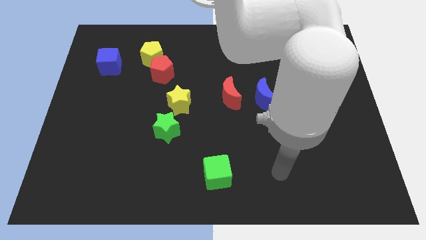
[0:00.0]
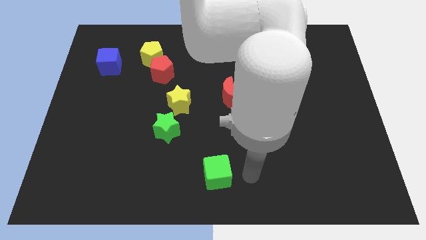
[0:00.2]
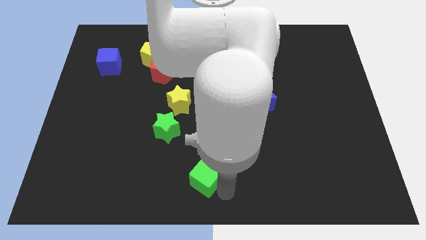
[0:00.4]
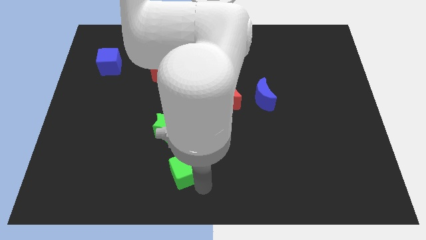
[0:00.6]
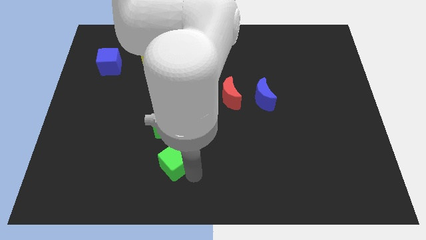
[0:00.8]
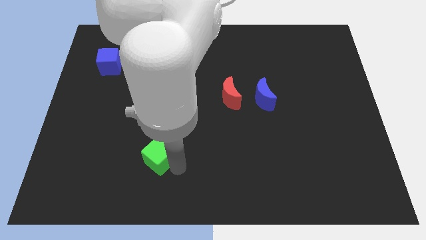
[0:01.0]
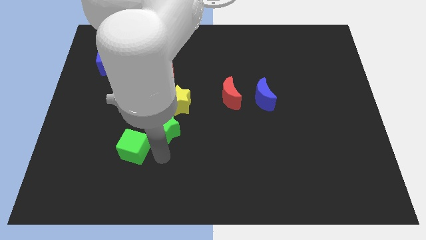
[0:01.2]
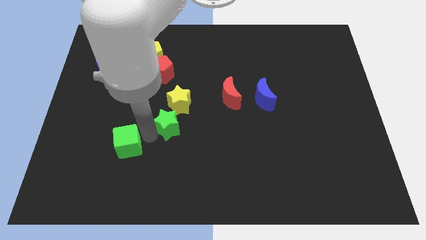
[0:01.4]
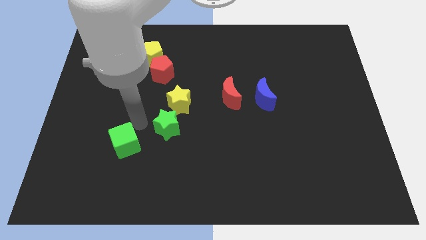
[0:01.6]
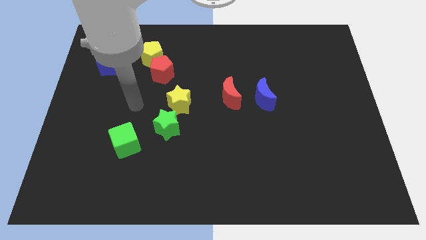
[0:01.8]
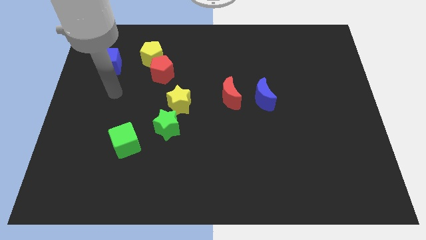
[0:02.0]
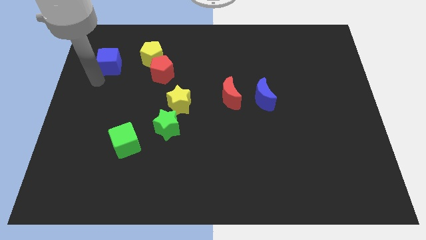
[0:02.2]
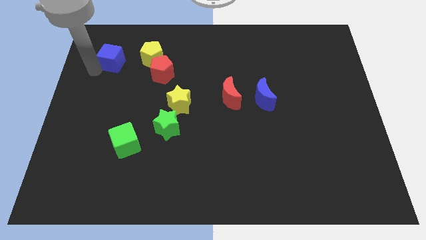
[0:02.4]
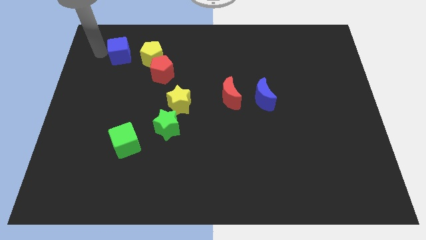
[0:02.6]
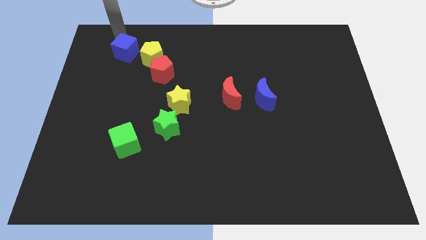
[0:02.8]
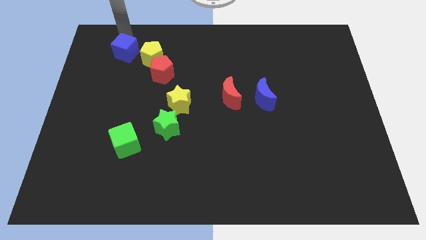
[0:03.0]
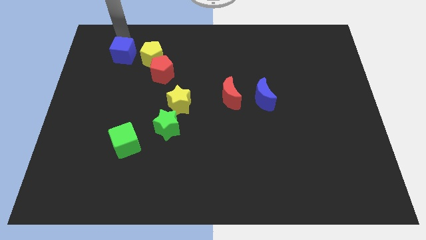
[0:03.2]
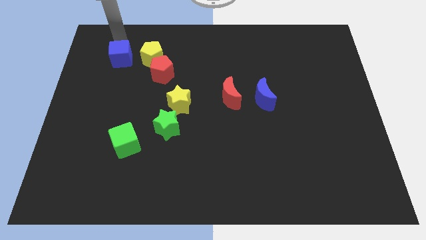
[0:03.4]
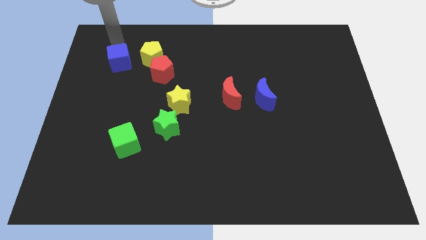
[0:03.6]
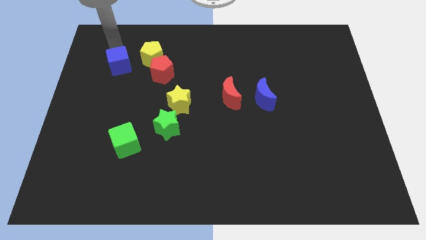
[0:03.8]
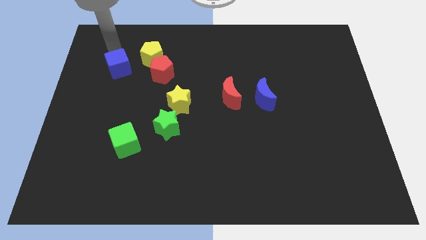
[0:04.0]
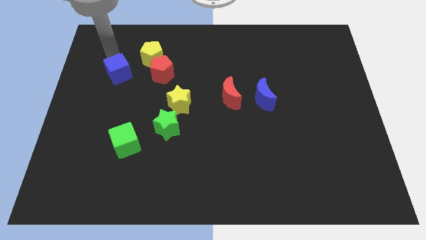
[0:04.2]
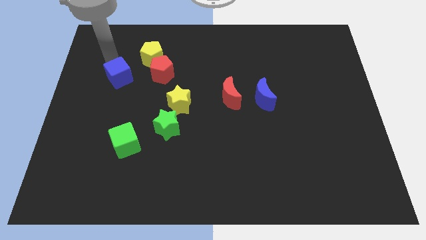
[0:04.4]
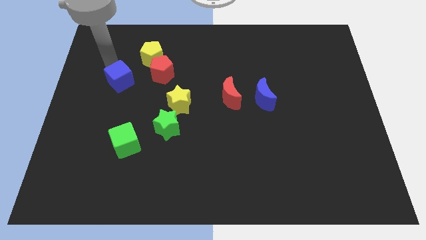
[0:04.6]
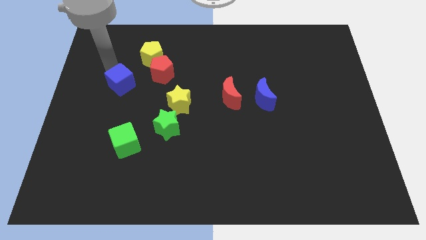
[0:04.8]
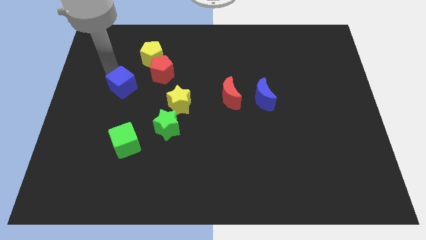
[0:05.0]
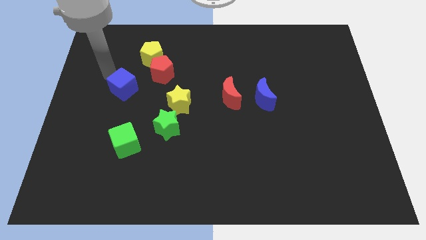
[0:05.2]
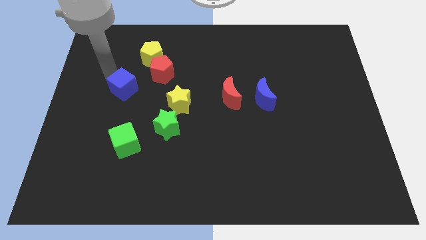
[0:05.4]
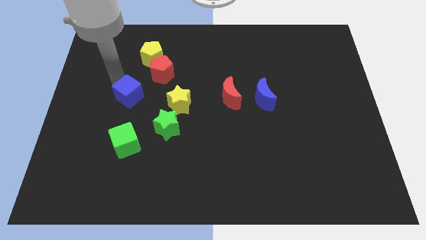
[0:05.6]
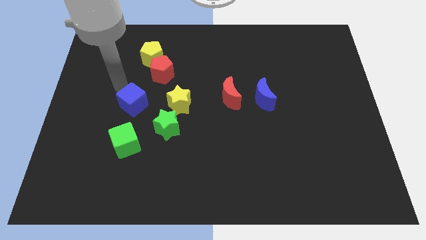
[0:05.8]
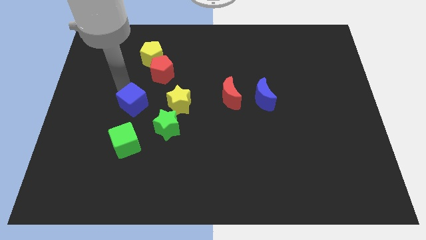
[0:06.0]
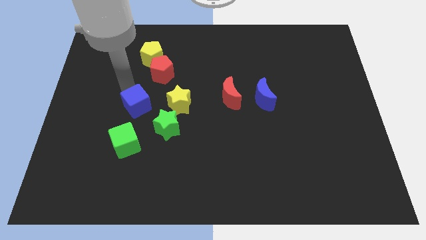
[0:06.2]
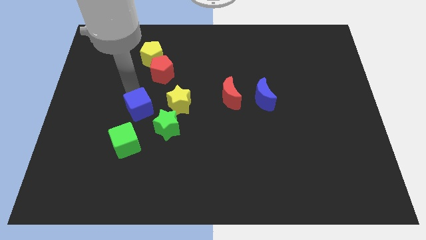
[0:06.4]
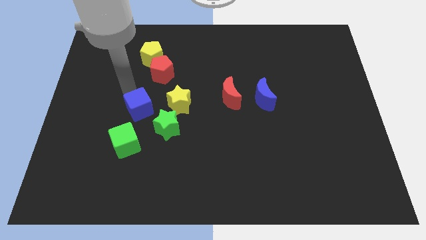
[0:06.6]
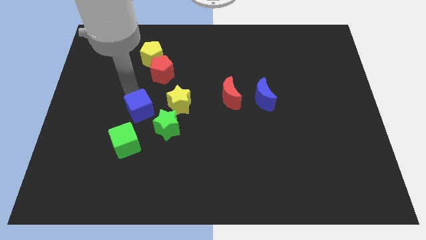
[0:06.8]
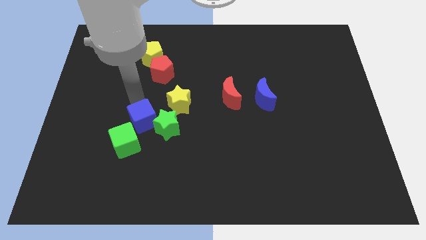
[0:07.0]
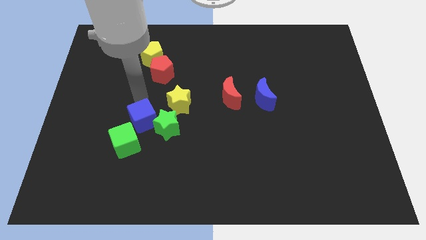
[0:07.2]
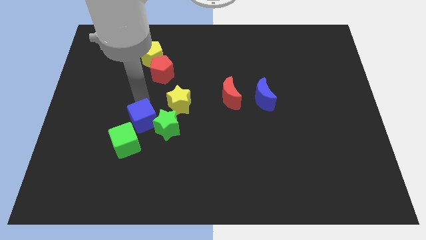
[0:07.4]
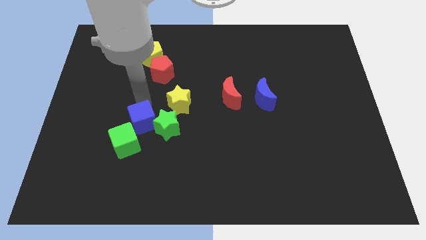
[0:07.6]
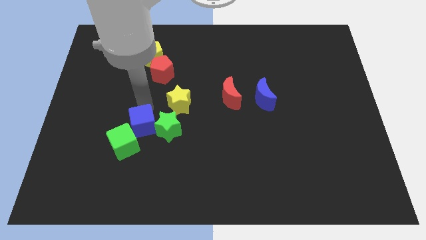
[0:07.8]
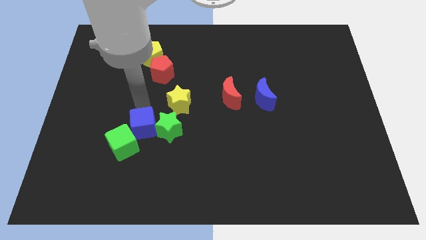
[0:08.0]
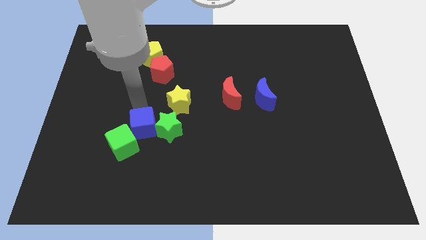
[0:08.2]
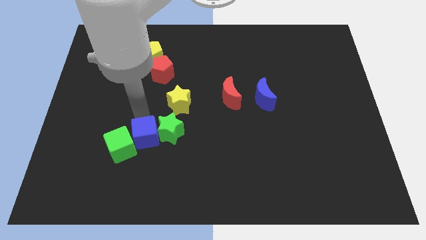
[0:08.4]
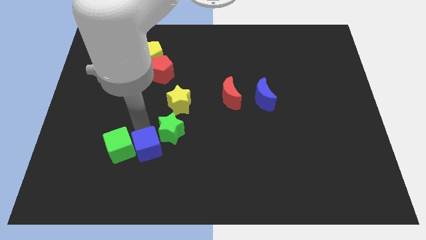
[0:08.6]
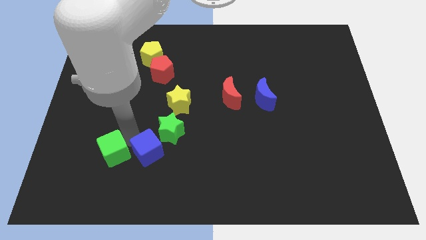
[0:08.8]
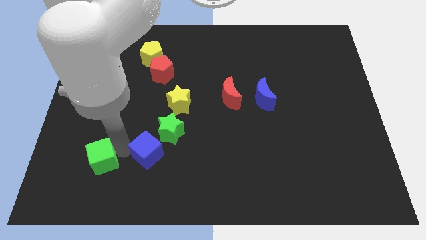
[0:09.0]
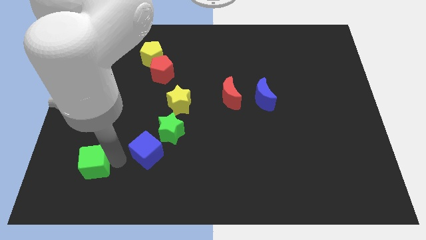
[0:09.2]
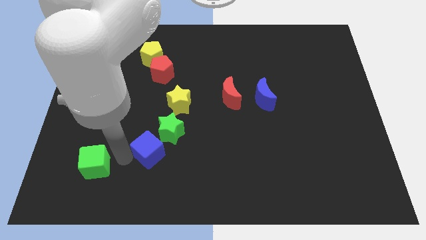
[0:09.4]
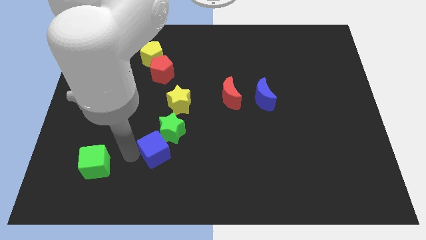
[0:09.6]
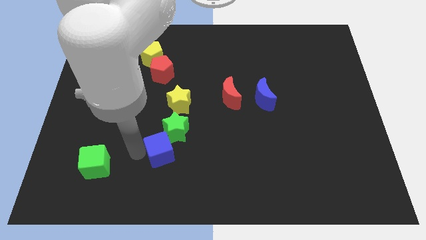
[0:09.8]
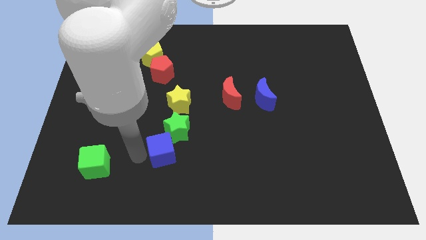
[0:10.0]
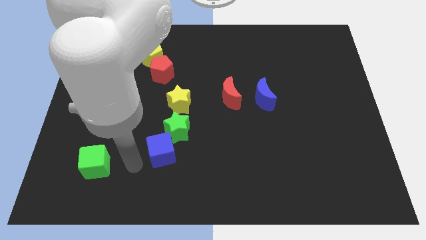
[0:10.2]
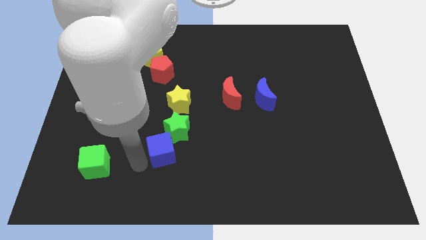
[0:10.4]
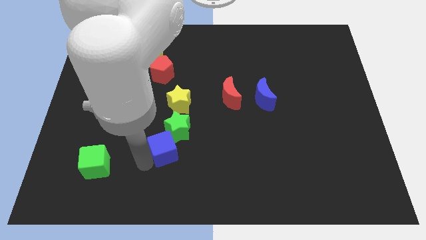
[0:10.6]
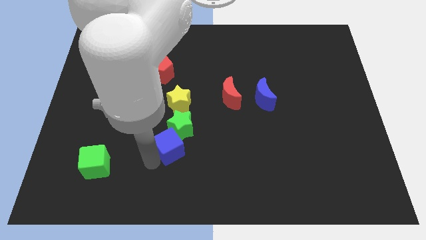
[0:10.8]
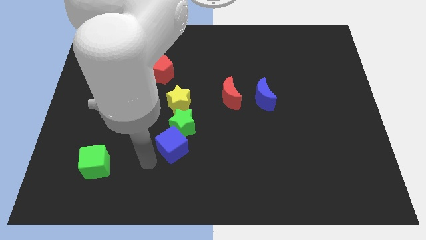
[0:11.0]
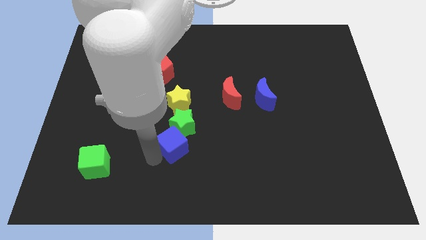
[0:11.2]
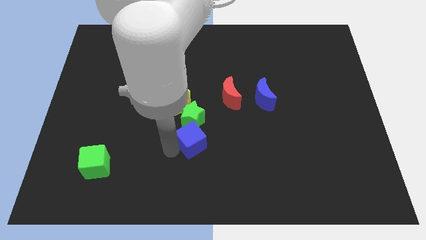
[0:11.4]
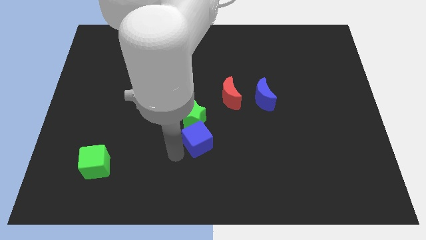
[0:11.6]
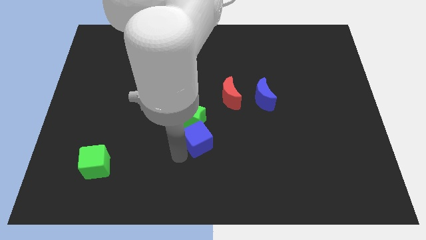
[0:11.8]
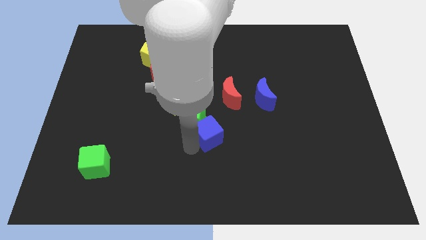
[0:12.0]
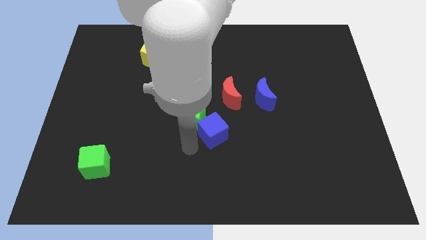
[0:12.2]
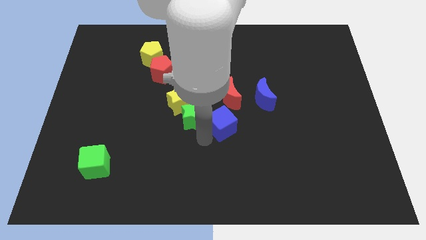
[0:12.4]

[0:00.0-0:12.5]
slide the blue cube to the bottom left side of the blue moon

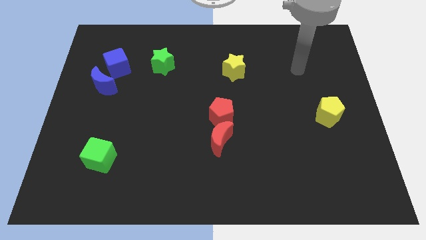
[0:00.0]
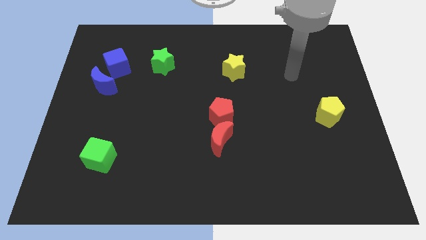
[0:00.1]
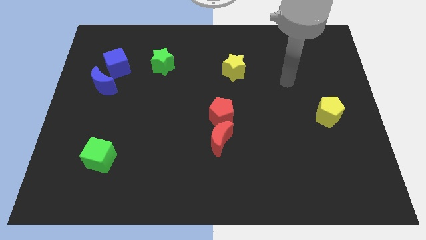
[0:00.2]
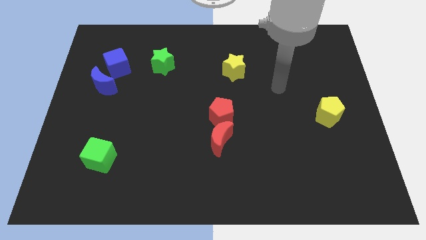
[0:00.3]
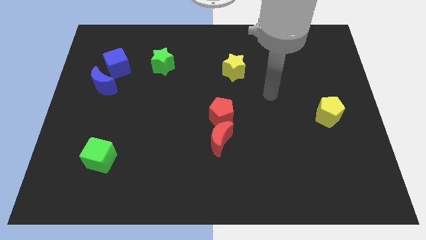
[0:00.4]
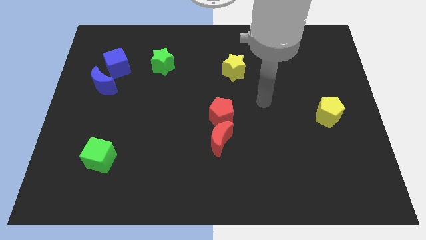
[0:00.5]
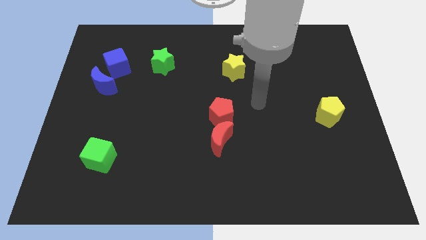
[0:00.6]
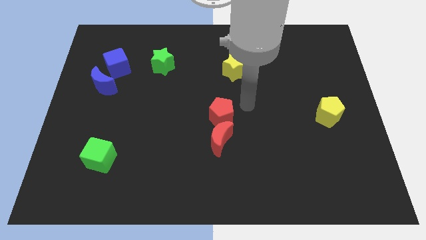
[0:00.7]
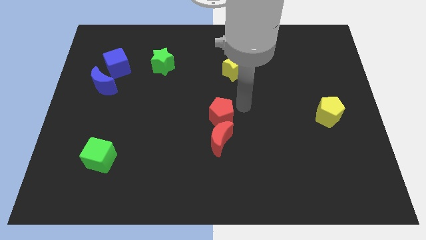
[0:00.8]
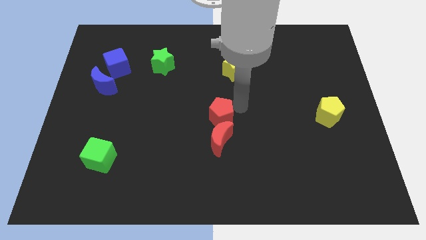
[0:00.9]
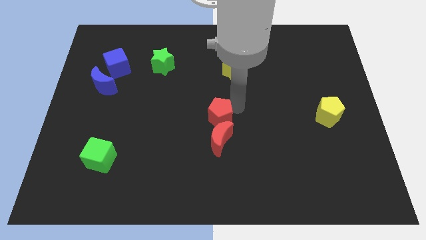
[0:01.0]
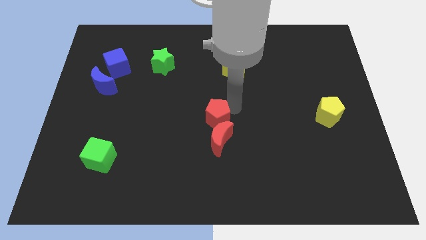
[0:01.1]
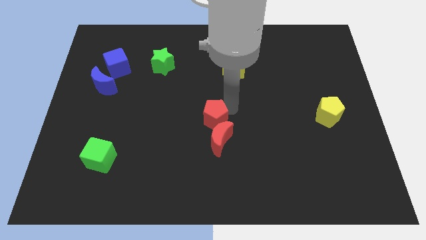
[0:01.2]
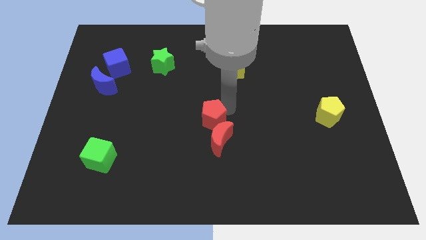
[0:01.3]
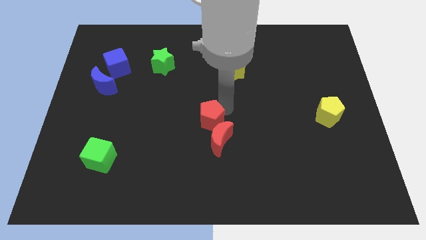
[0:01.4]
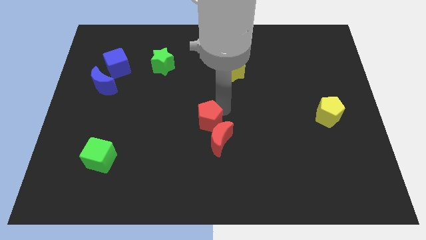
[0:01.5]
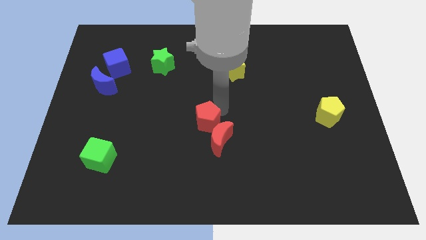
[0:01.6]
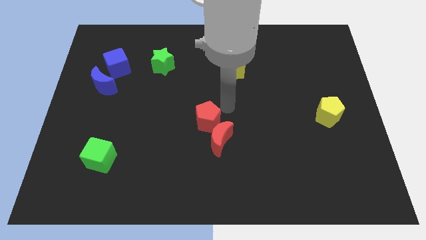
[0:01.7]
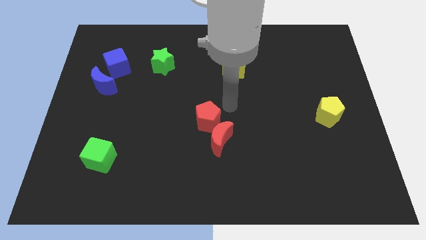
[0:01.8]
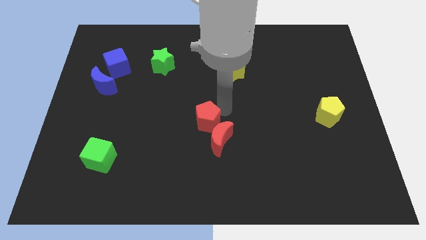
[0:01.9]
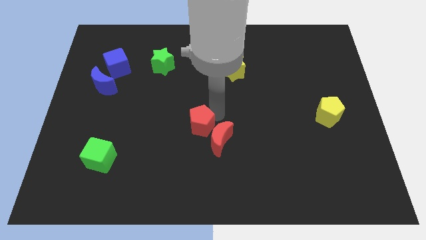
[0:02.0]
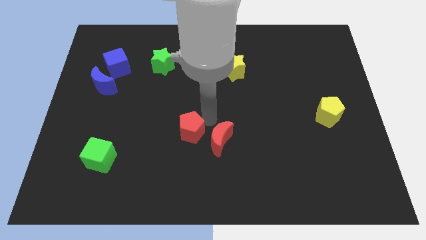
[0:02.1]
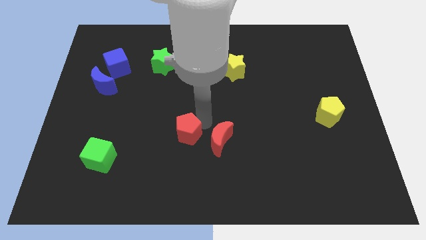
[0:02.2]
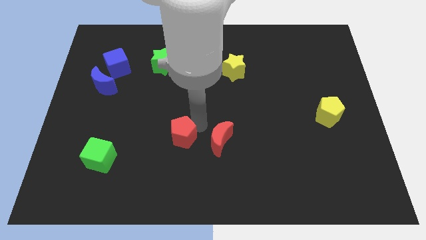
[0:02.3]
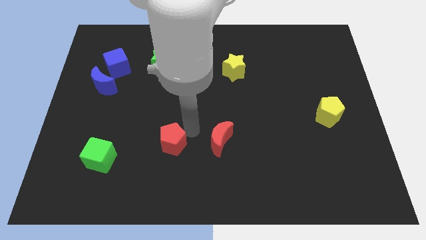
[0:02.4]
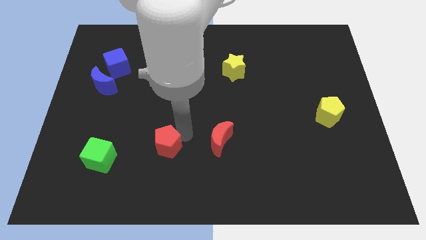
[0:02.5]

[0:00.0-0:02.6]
slide the red pentagon right of the green cube
